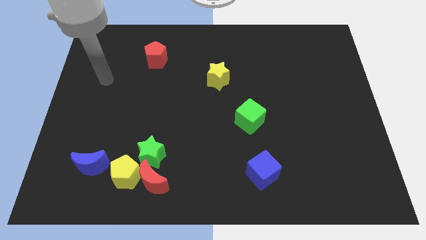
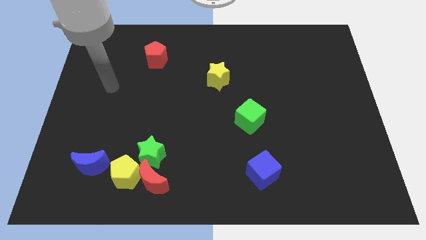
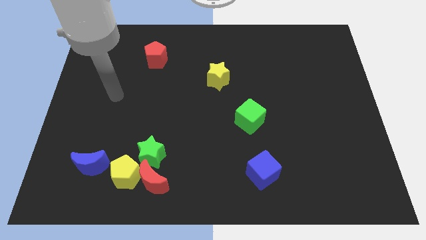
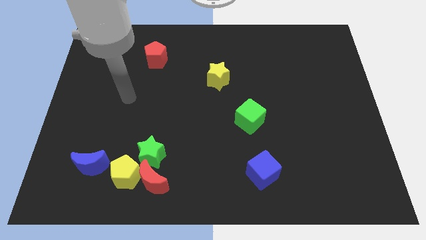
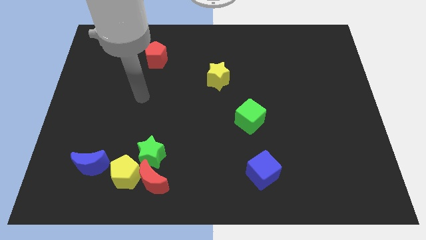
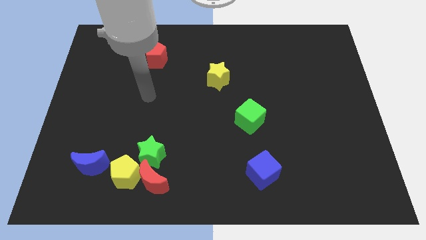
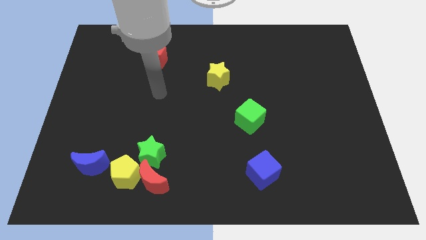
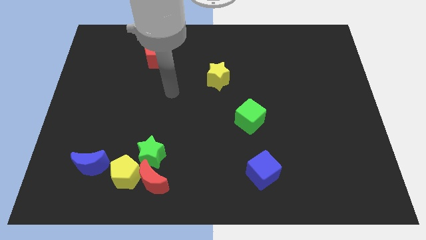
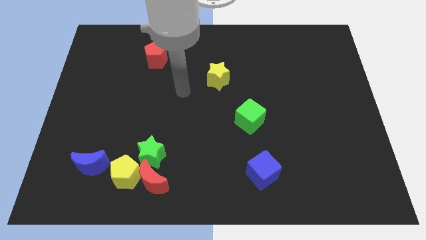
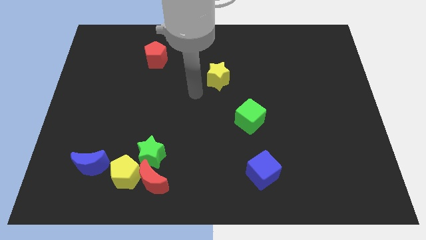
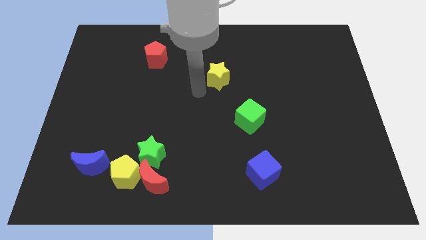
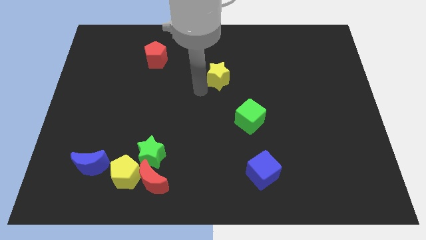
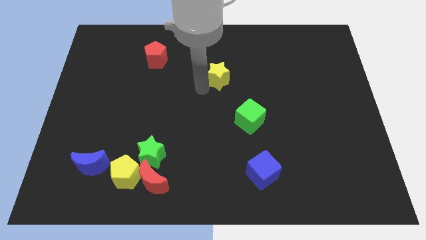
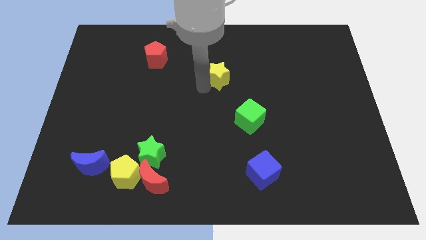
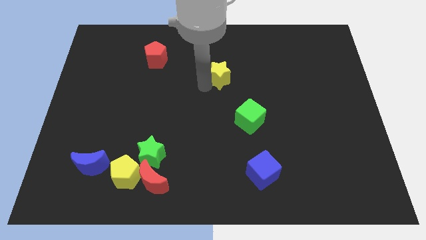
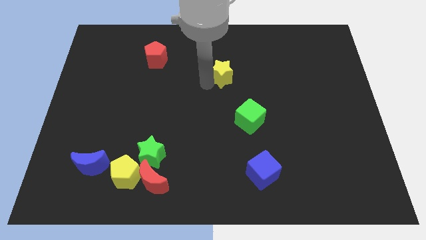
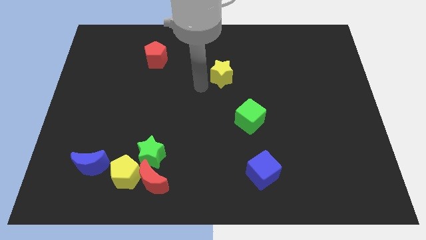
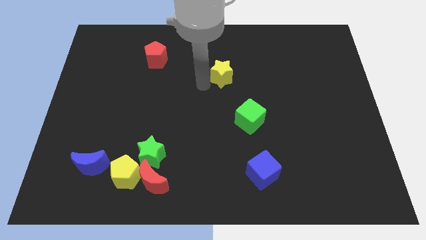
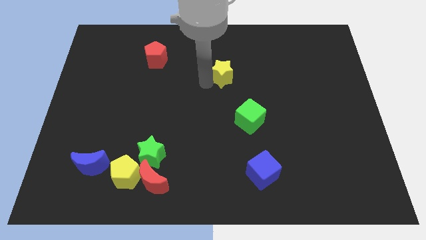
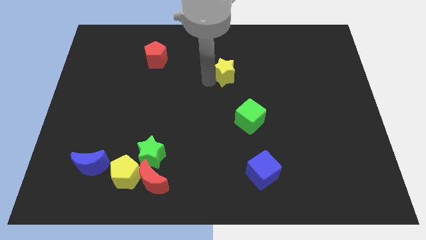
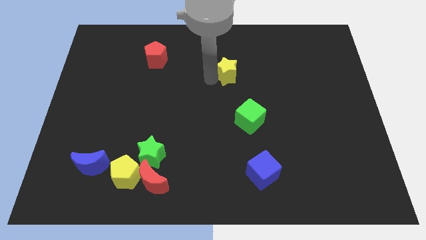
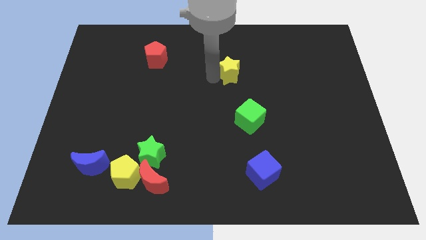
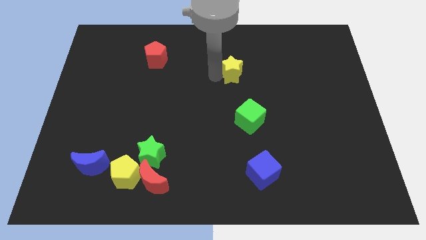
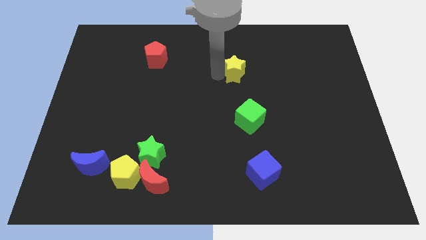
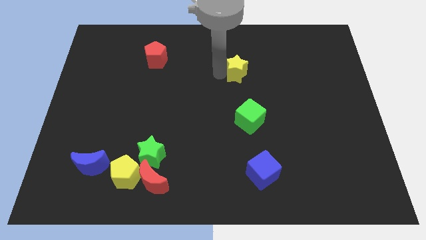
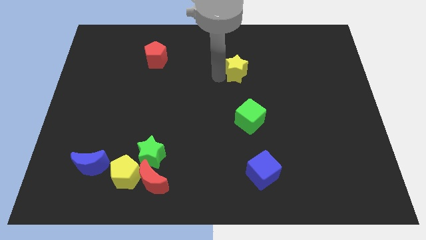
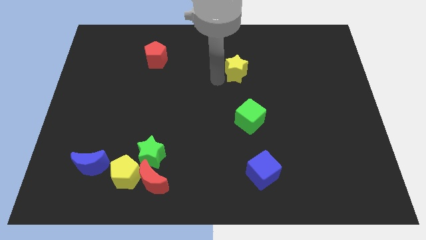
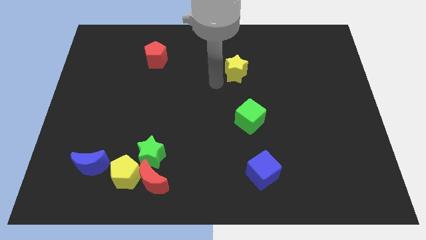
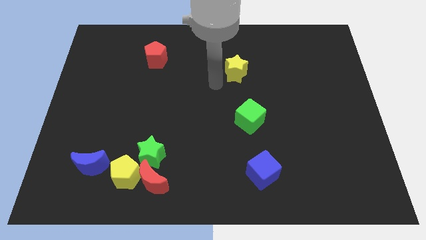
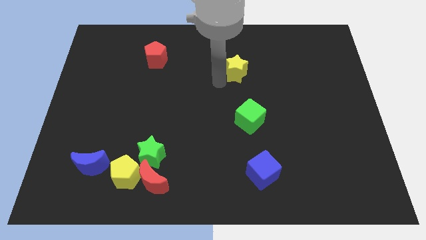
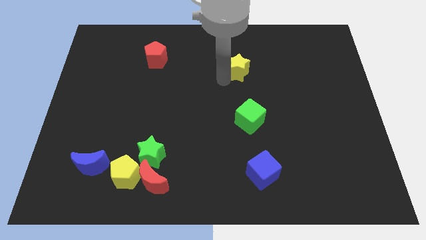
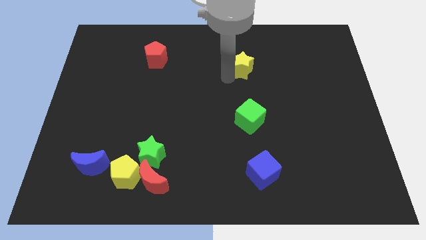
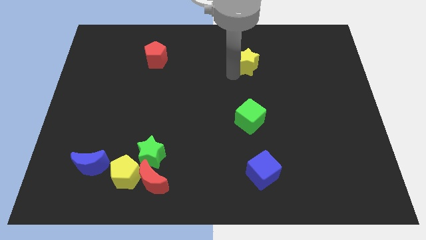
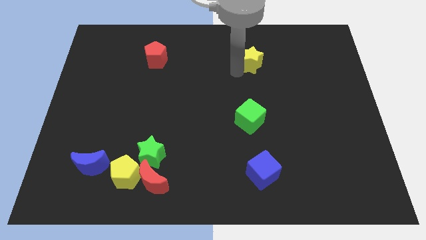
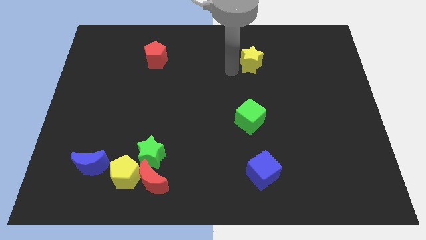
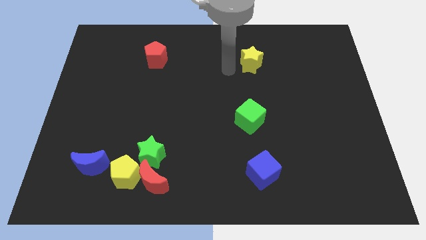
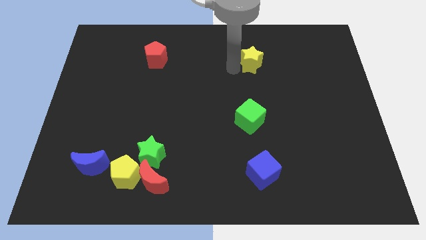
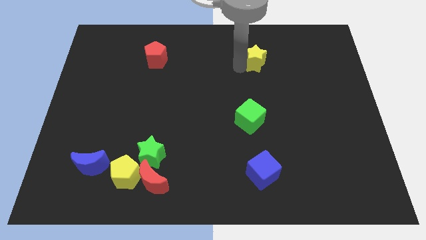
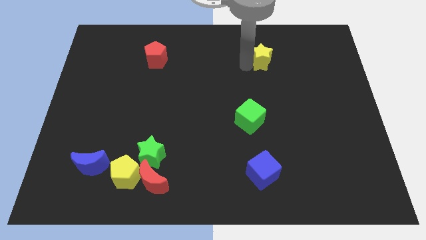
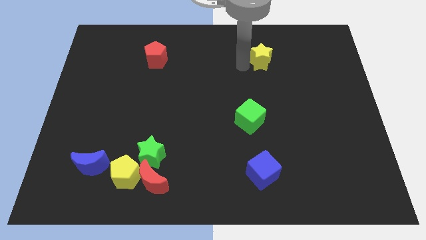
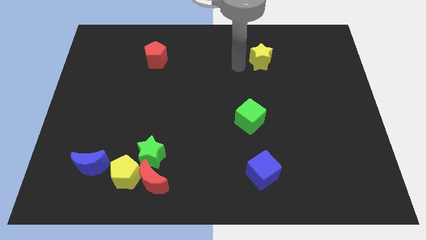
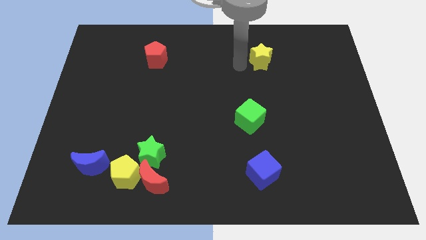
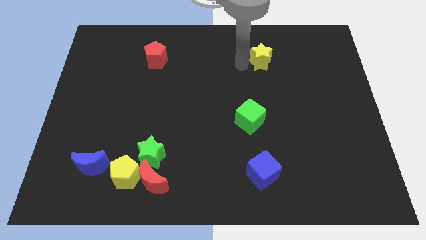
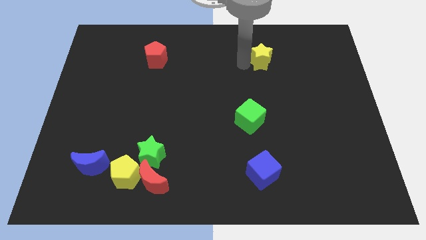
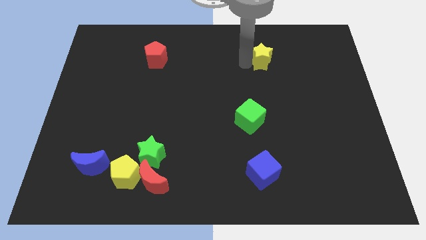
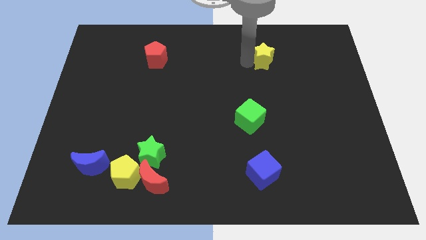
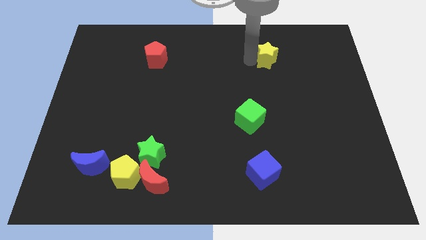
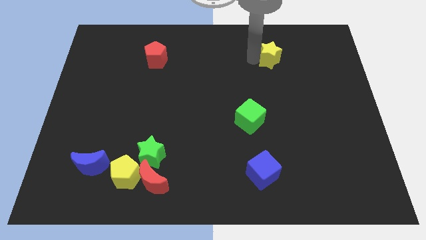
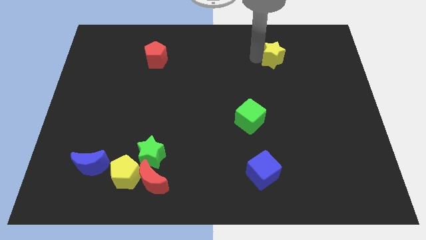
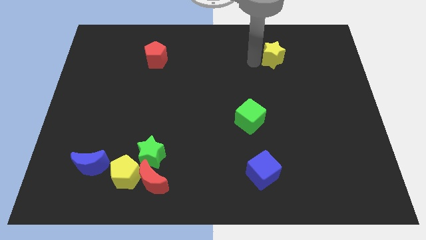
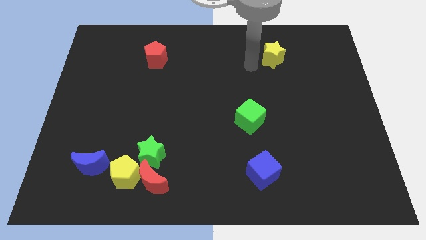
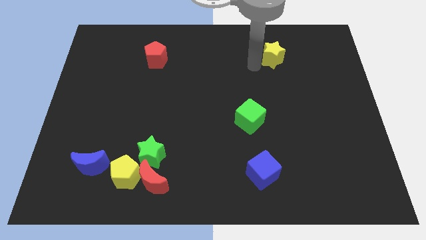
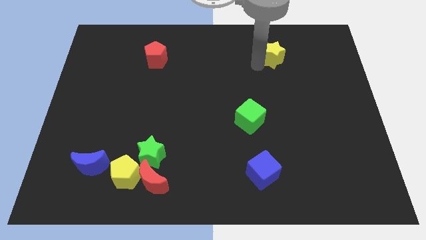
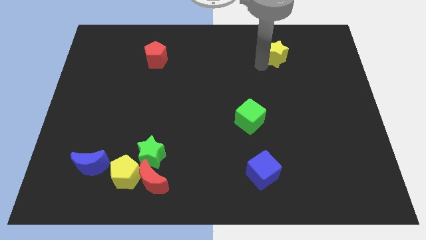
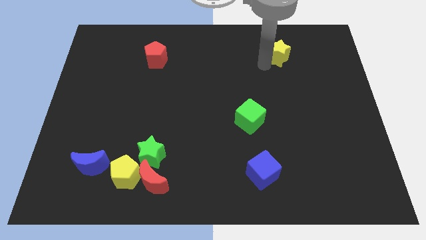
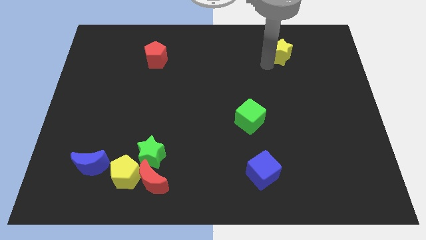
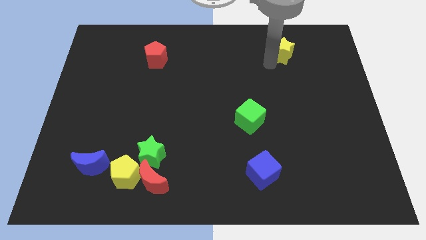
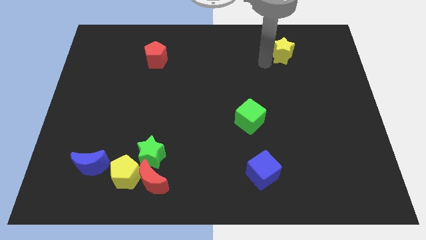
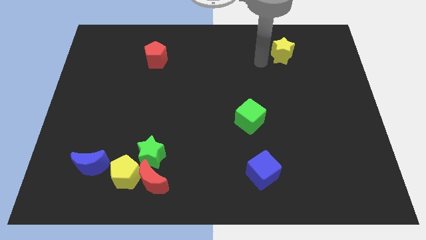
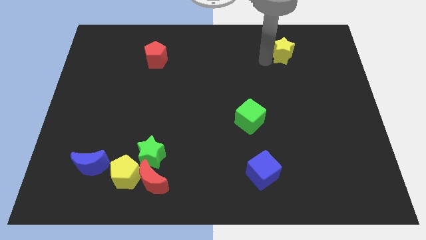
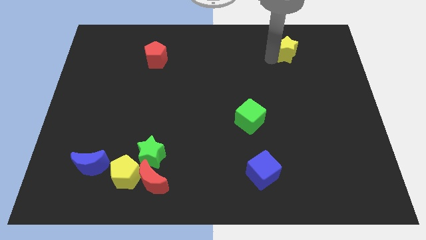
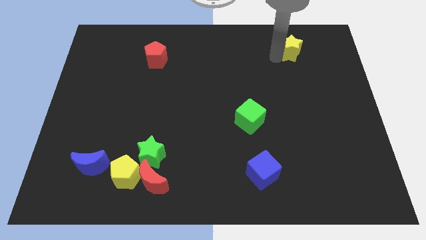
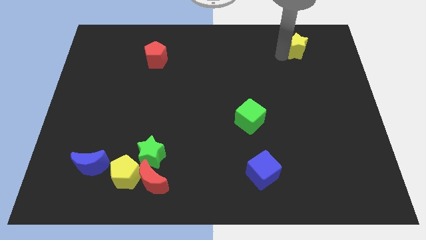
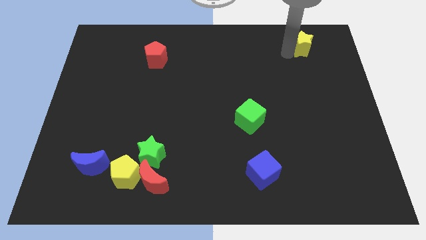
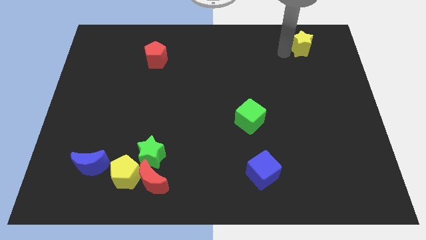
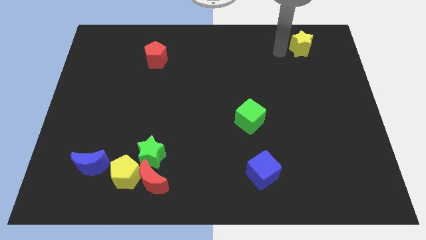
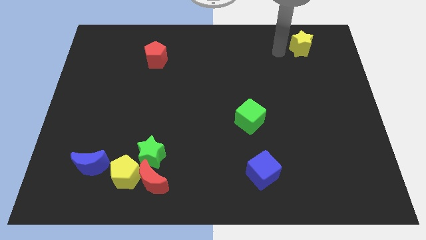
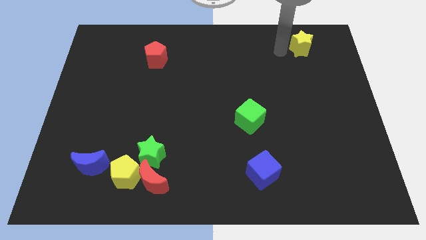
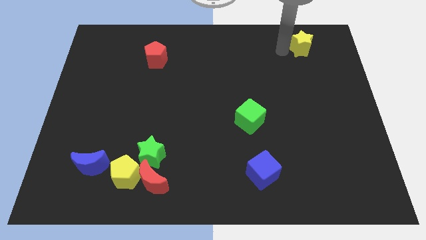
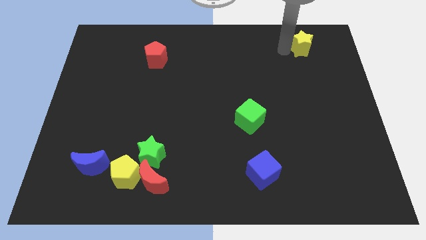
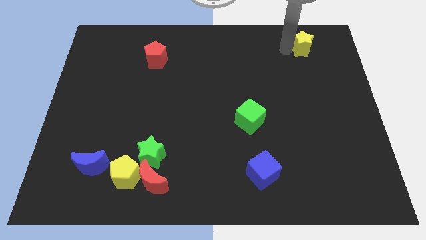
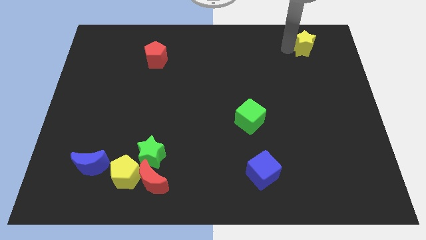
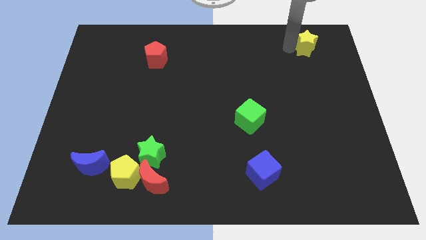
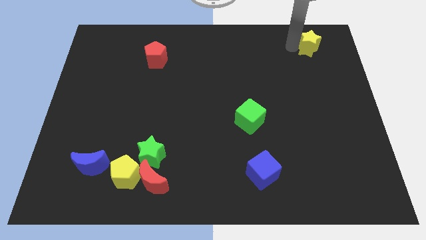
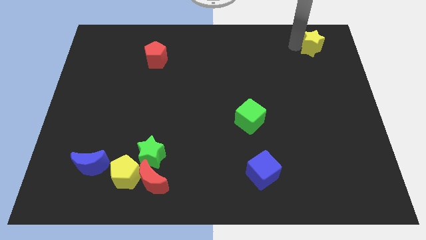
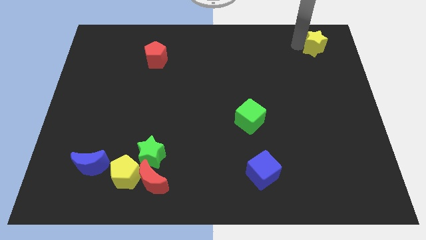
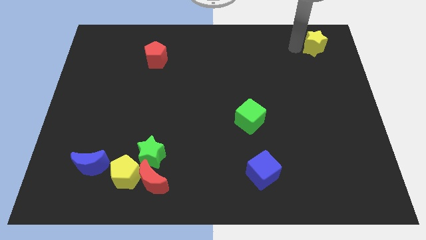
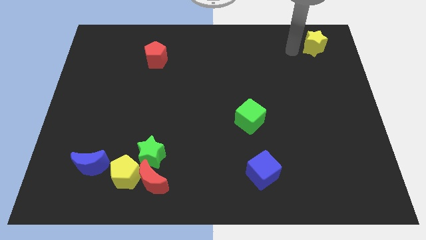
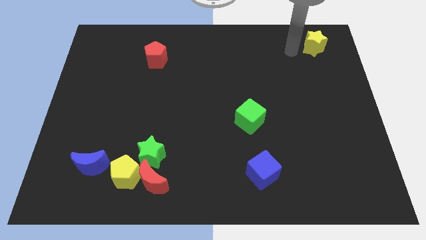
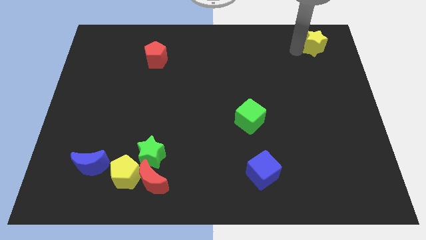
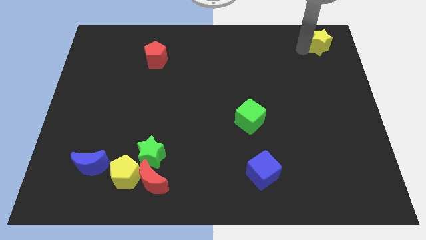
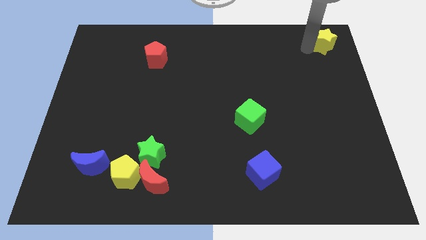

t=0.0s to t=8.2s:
move the yellow star to the top right corner
